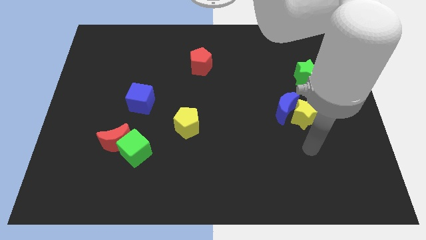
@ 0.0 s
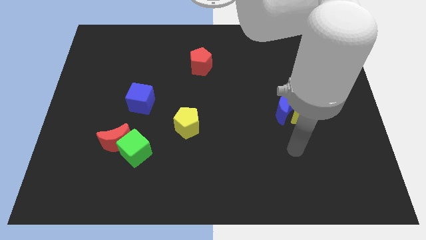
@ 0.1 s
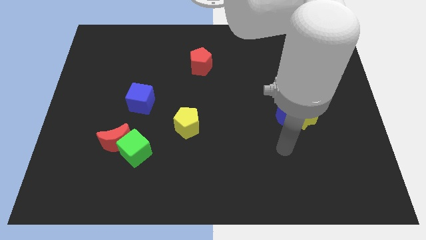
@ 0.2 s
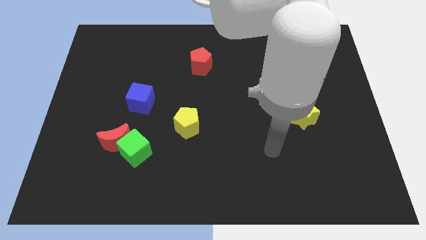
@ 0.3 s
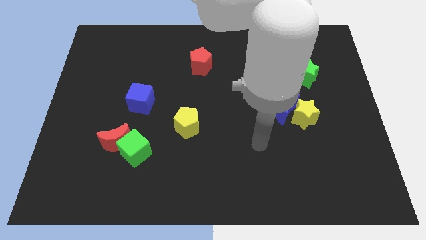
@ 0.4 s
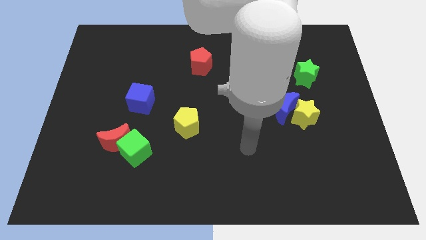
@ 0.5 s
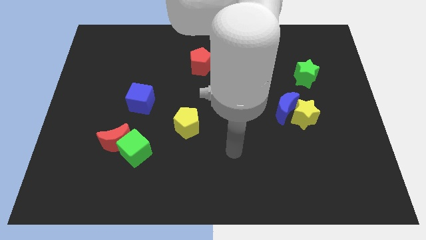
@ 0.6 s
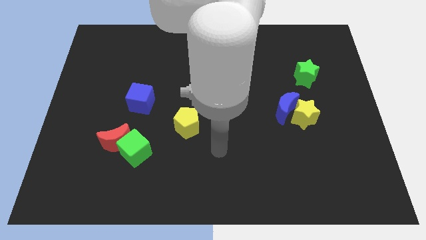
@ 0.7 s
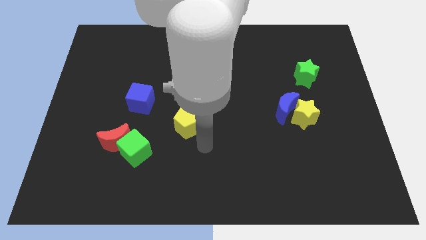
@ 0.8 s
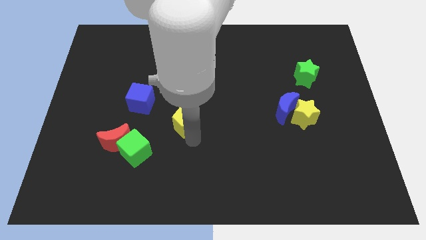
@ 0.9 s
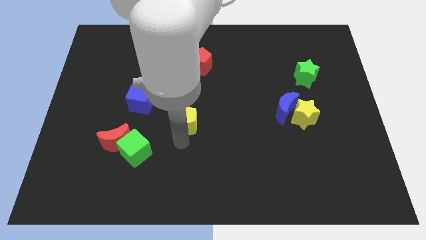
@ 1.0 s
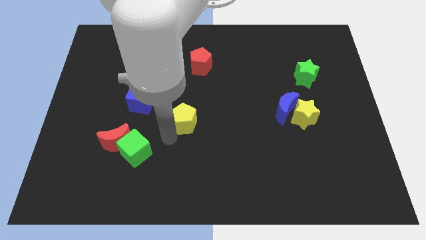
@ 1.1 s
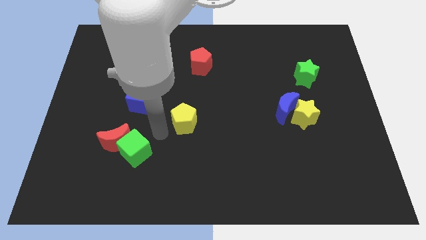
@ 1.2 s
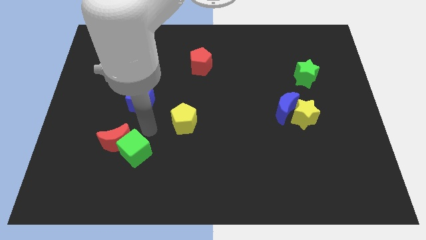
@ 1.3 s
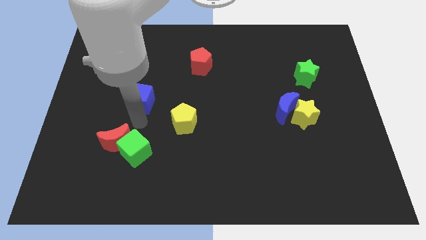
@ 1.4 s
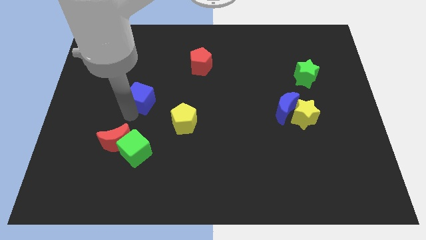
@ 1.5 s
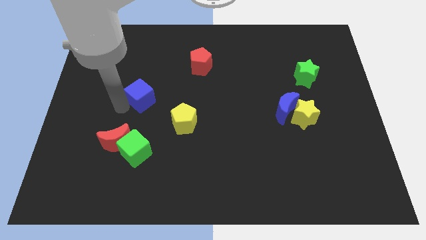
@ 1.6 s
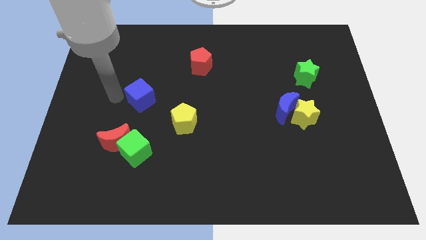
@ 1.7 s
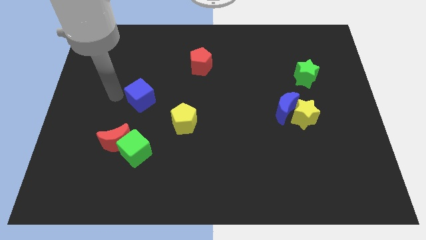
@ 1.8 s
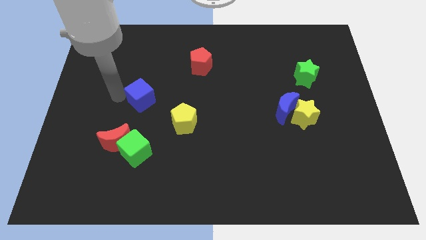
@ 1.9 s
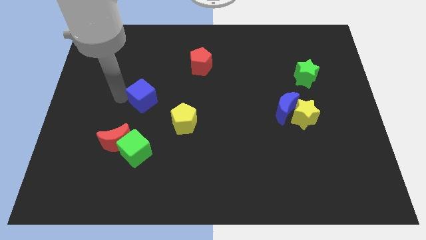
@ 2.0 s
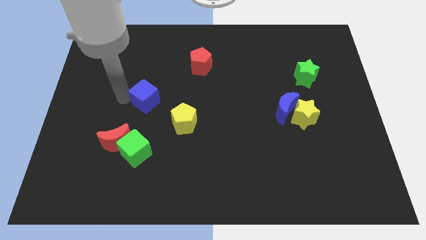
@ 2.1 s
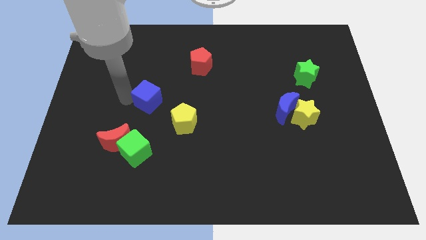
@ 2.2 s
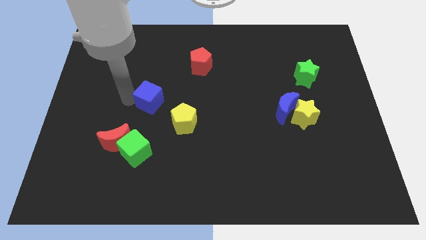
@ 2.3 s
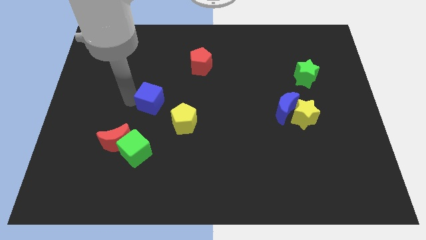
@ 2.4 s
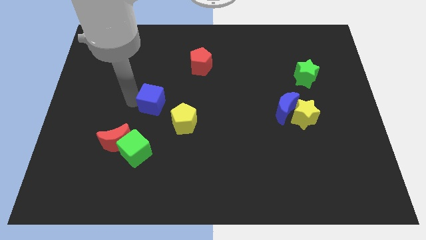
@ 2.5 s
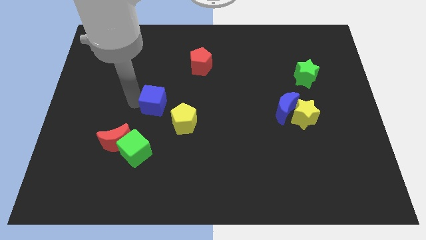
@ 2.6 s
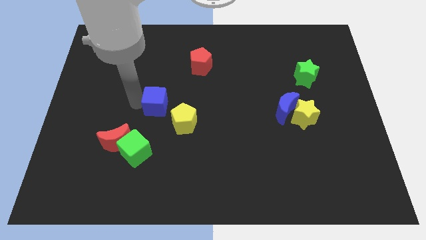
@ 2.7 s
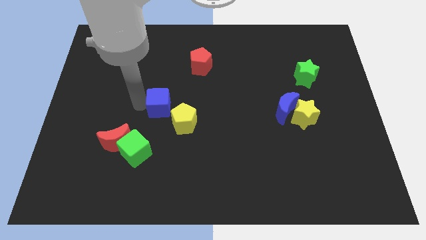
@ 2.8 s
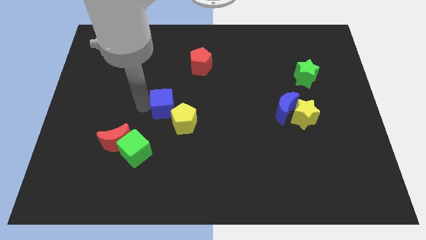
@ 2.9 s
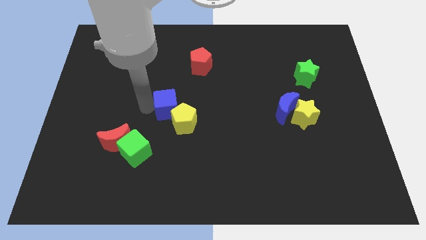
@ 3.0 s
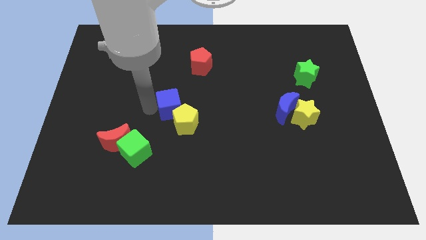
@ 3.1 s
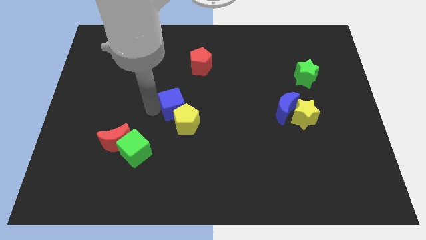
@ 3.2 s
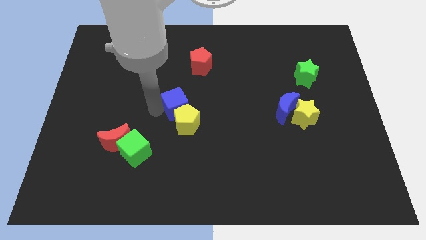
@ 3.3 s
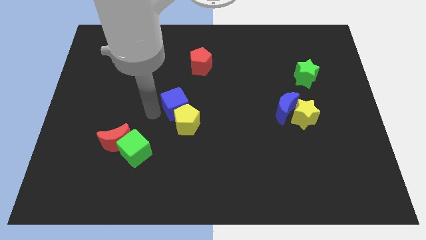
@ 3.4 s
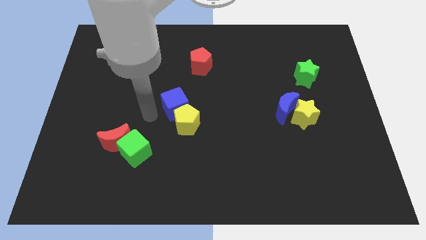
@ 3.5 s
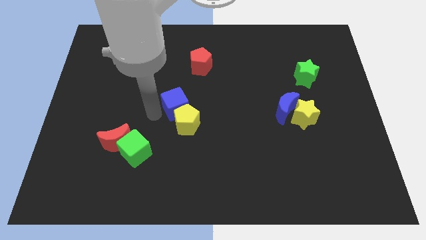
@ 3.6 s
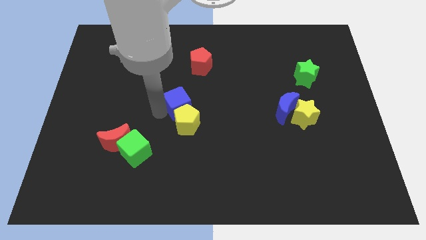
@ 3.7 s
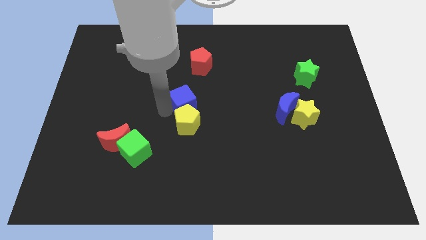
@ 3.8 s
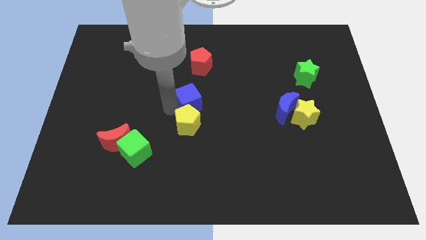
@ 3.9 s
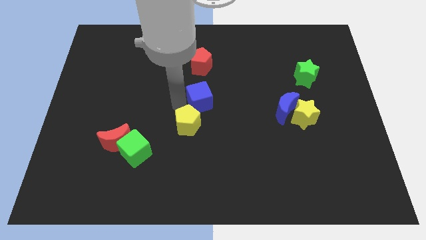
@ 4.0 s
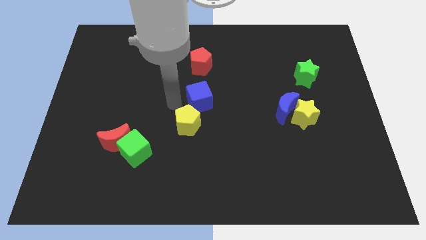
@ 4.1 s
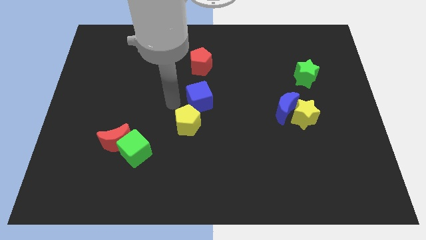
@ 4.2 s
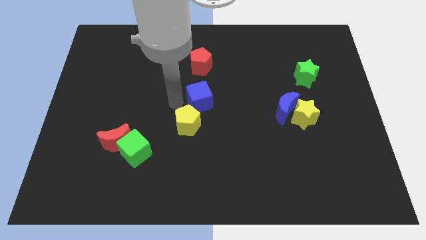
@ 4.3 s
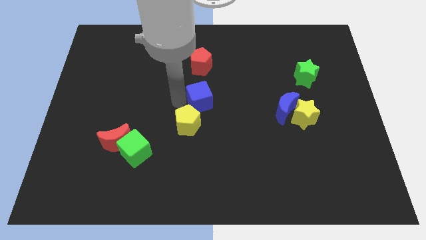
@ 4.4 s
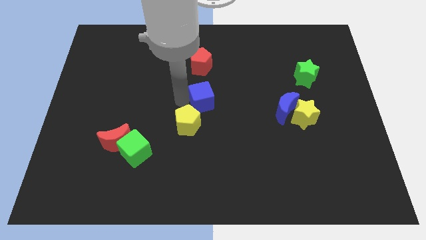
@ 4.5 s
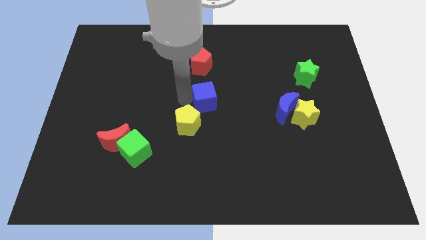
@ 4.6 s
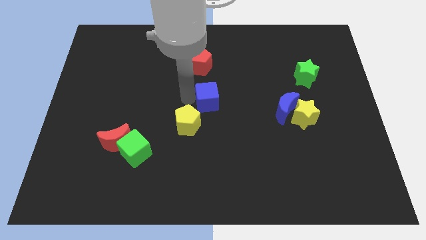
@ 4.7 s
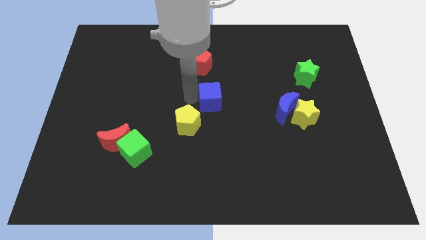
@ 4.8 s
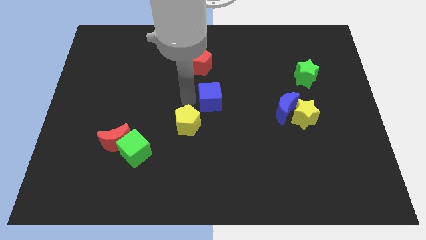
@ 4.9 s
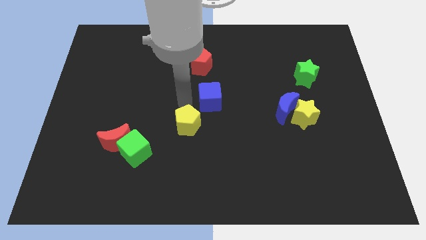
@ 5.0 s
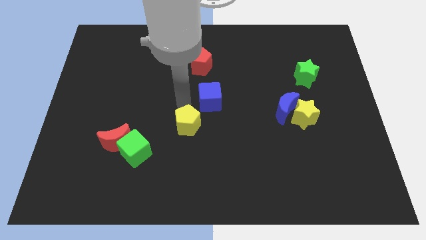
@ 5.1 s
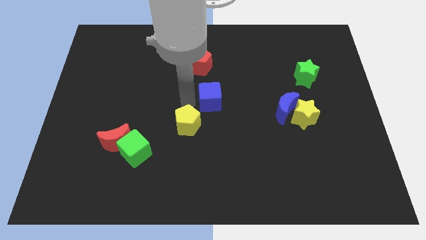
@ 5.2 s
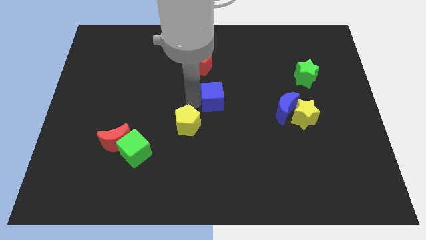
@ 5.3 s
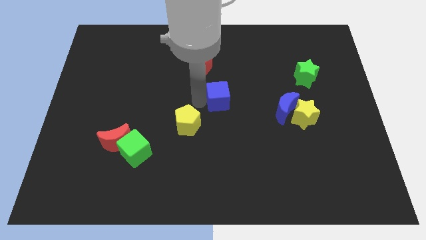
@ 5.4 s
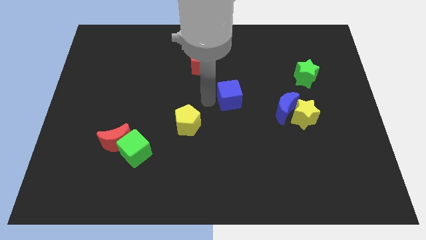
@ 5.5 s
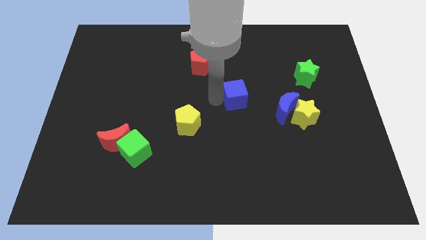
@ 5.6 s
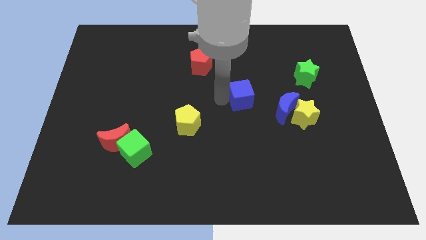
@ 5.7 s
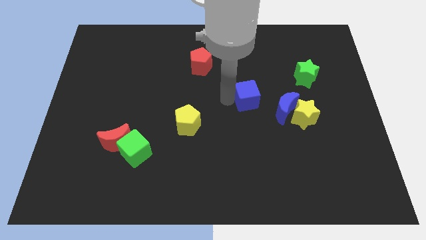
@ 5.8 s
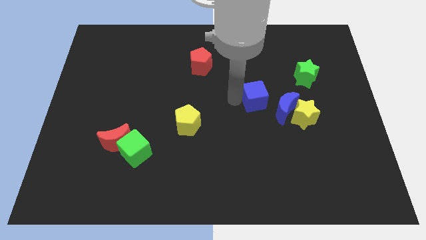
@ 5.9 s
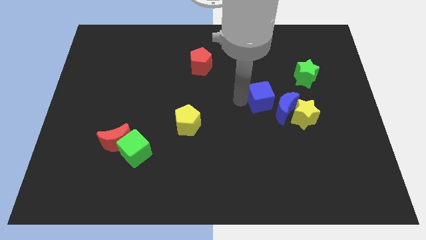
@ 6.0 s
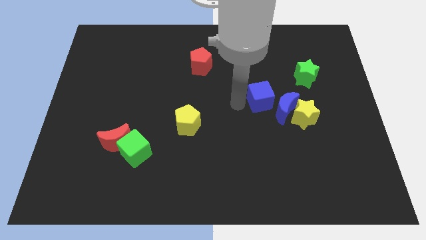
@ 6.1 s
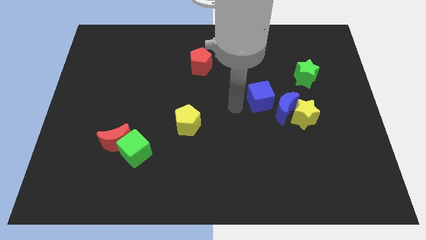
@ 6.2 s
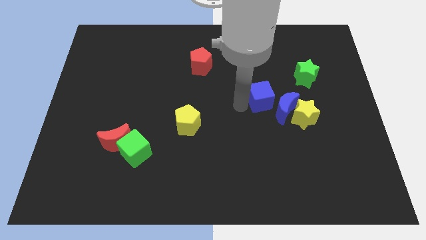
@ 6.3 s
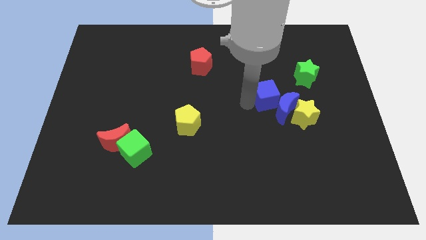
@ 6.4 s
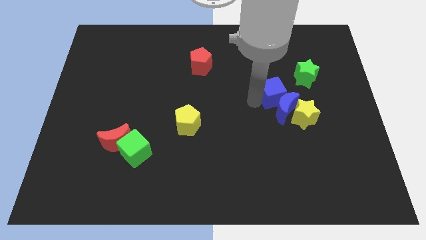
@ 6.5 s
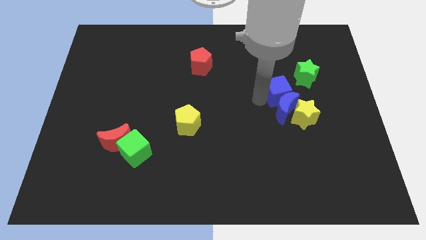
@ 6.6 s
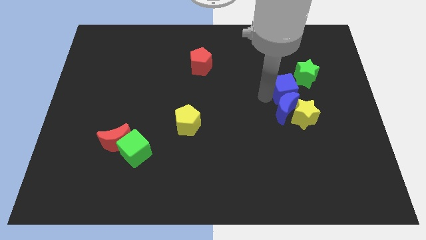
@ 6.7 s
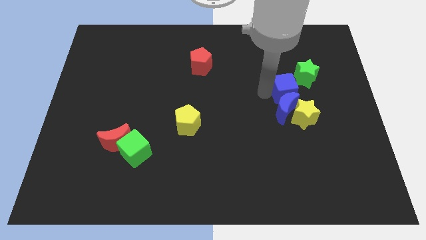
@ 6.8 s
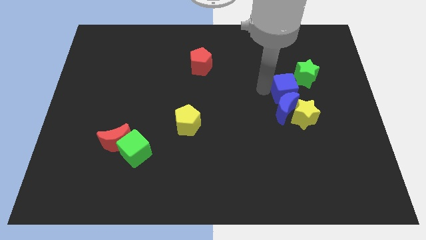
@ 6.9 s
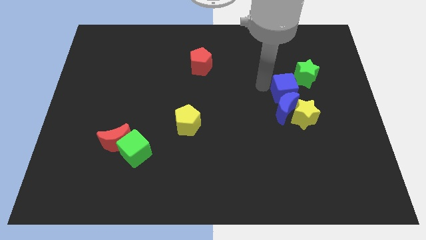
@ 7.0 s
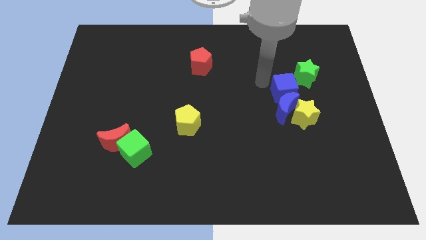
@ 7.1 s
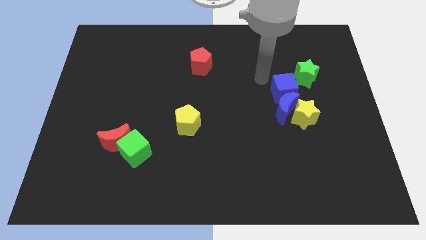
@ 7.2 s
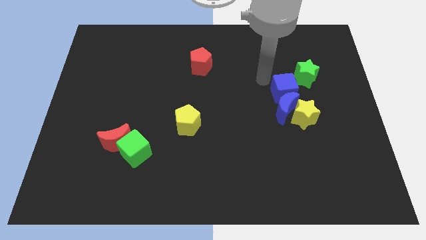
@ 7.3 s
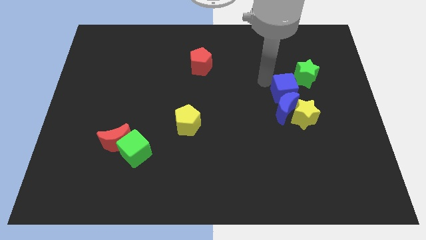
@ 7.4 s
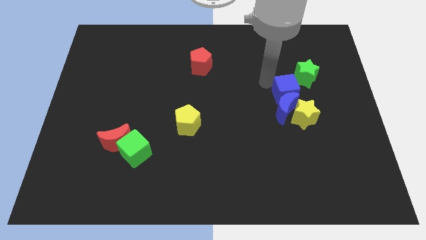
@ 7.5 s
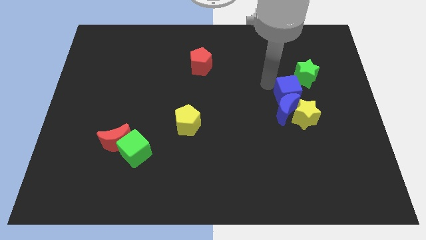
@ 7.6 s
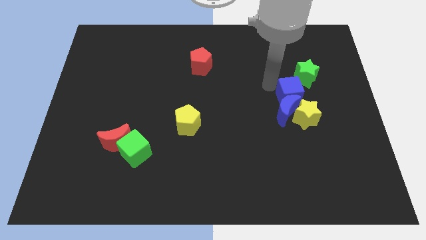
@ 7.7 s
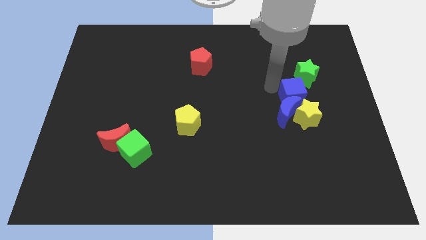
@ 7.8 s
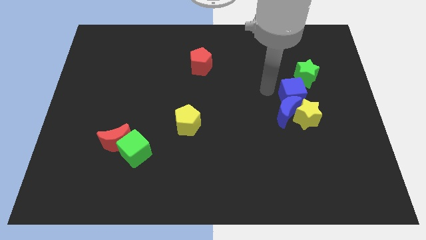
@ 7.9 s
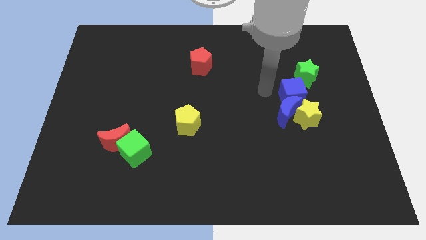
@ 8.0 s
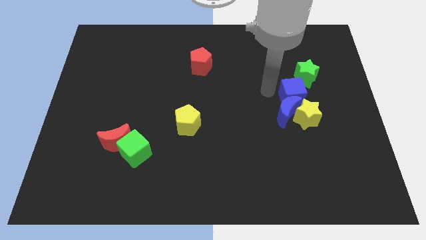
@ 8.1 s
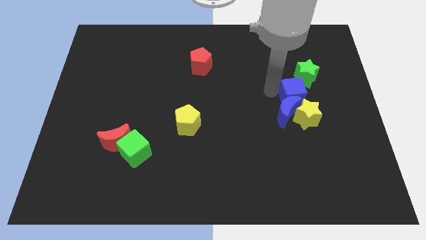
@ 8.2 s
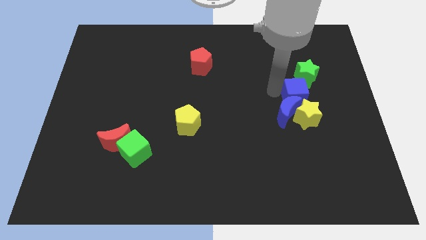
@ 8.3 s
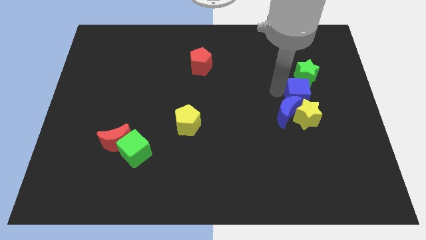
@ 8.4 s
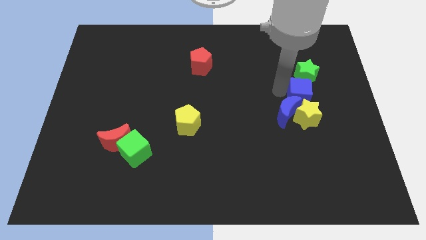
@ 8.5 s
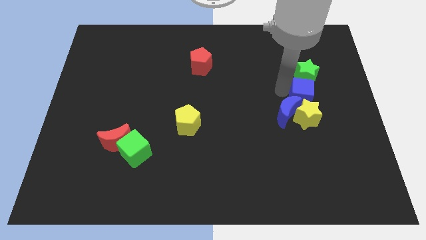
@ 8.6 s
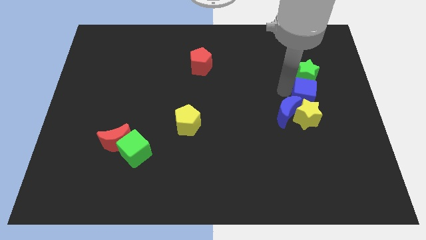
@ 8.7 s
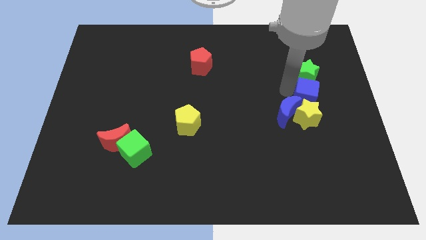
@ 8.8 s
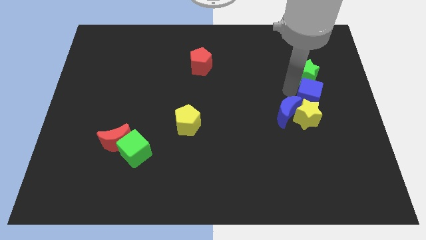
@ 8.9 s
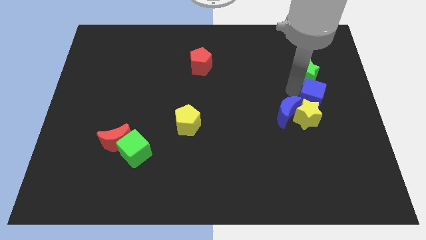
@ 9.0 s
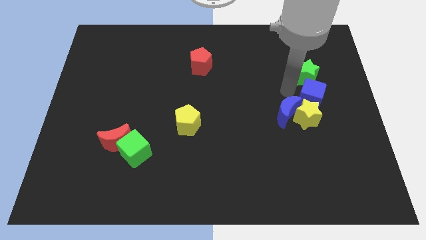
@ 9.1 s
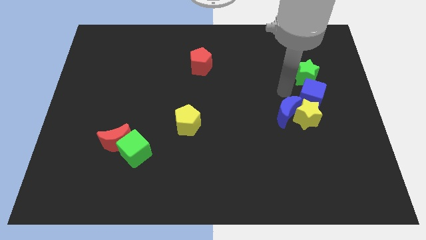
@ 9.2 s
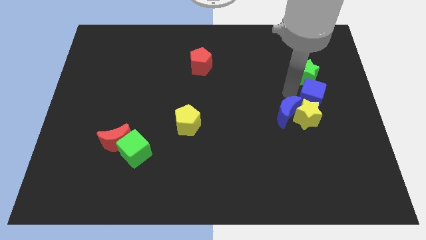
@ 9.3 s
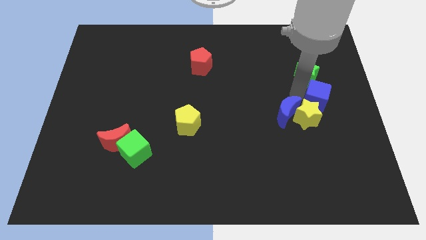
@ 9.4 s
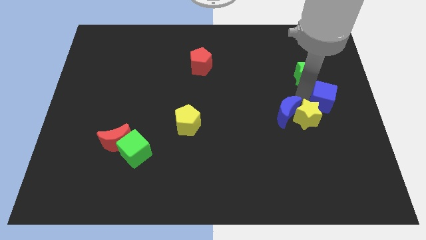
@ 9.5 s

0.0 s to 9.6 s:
move the blue cube to the right side
